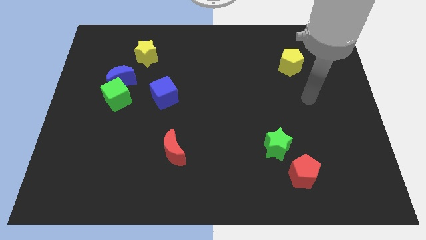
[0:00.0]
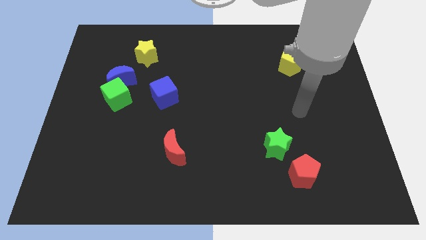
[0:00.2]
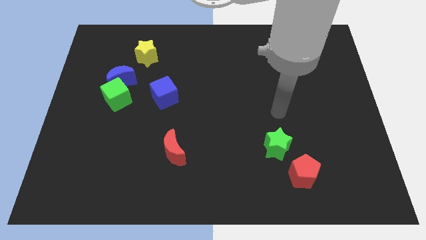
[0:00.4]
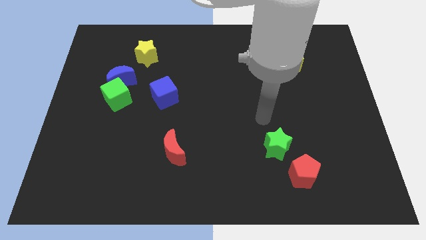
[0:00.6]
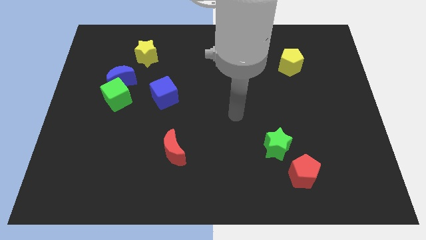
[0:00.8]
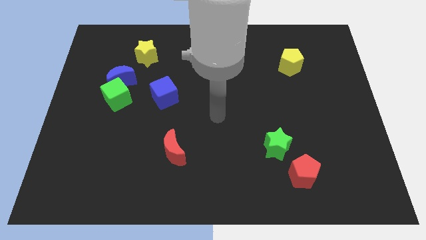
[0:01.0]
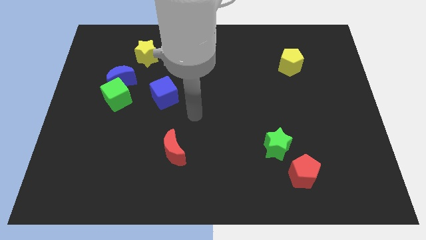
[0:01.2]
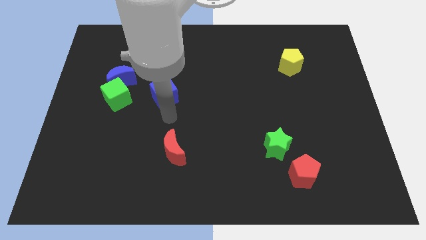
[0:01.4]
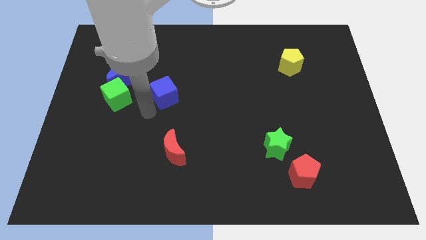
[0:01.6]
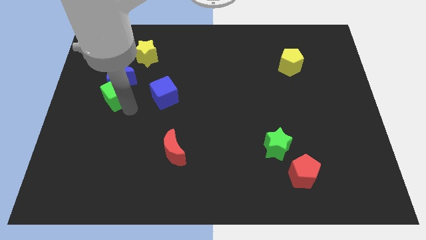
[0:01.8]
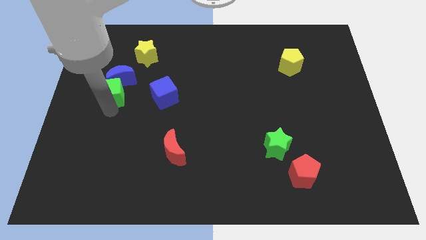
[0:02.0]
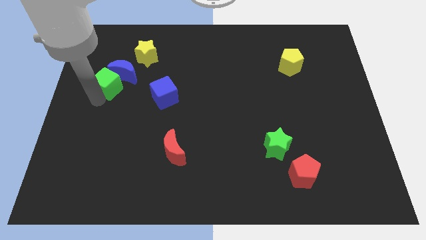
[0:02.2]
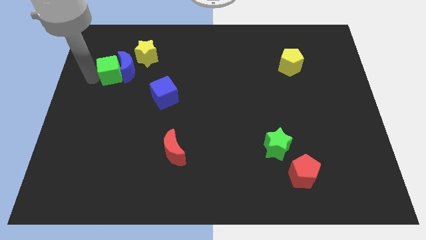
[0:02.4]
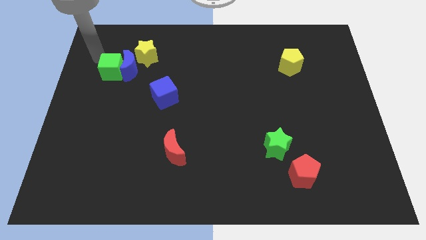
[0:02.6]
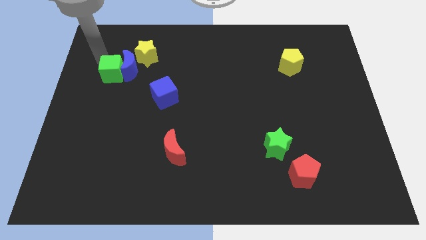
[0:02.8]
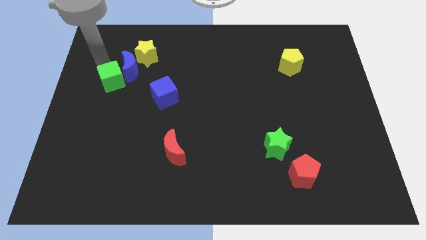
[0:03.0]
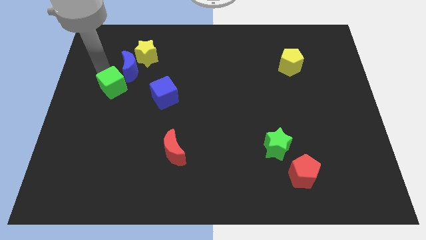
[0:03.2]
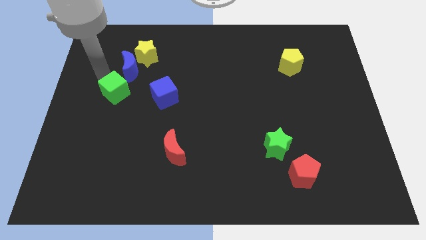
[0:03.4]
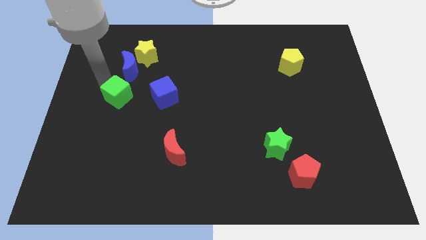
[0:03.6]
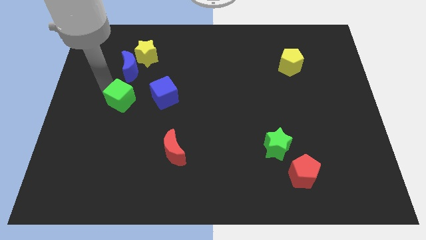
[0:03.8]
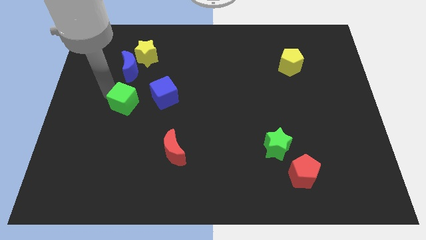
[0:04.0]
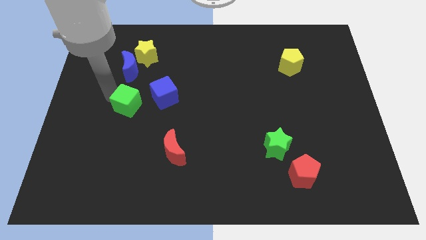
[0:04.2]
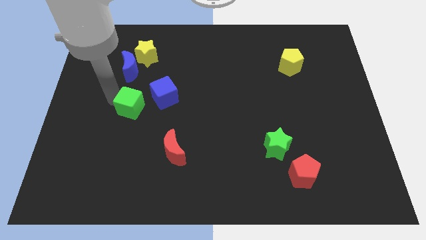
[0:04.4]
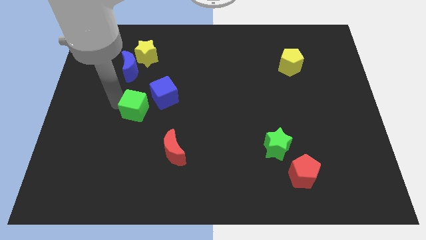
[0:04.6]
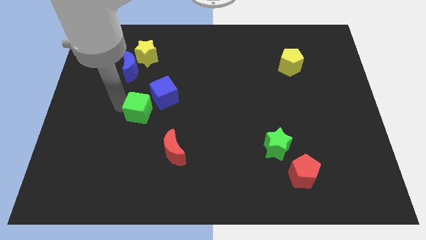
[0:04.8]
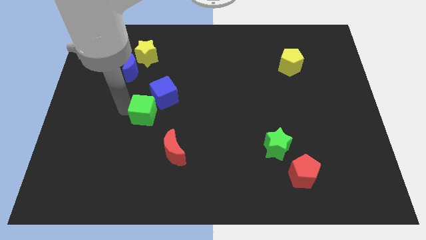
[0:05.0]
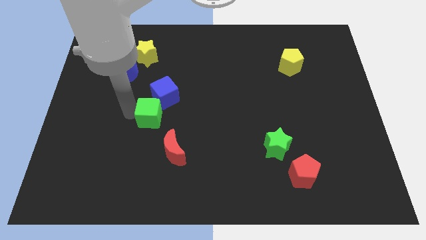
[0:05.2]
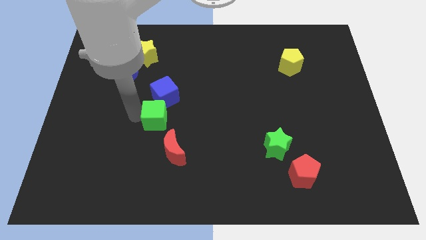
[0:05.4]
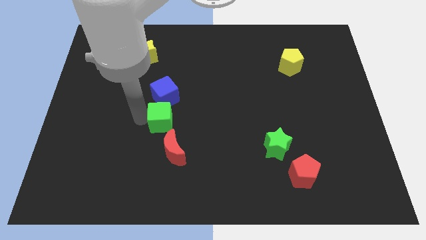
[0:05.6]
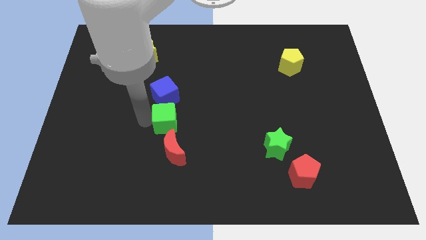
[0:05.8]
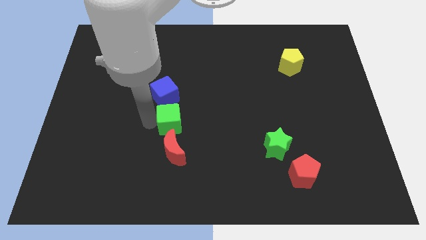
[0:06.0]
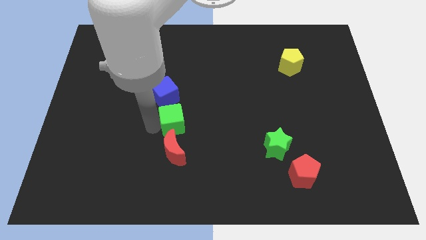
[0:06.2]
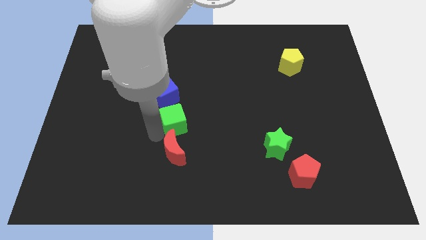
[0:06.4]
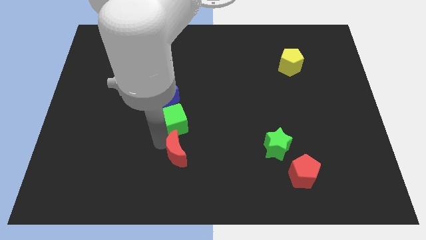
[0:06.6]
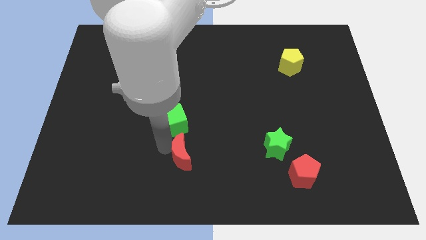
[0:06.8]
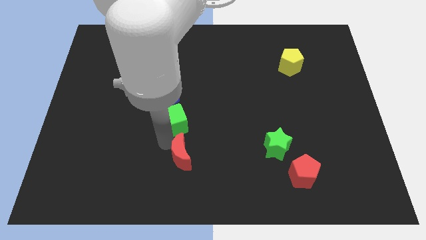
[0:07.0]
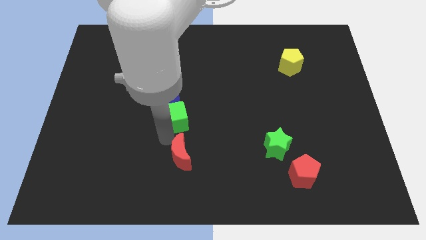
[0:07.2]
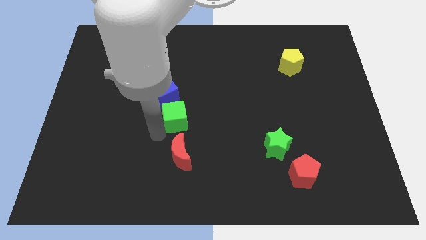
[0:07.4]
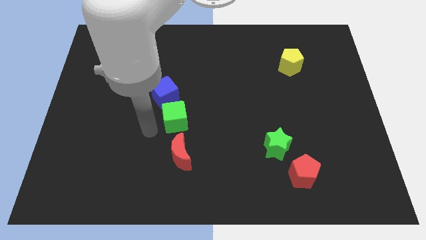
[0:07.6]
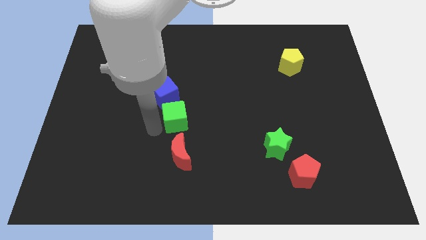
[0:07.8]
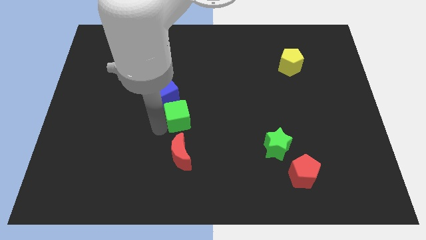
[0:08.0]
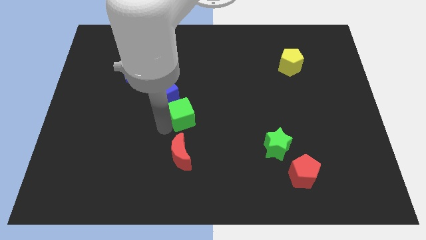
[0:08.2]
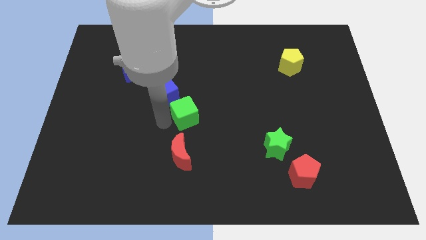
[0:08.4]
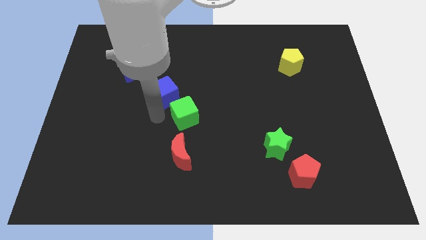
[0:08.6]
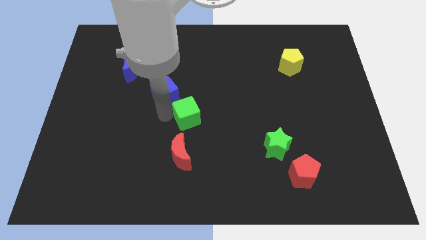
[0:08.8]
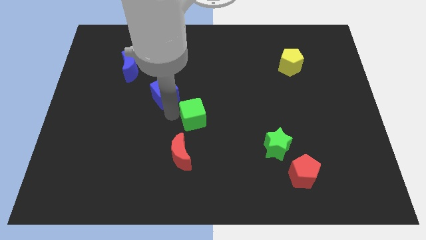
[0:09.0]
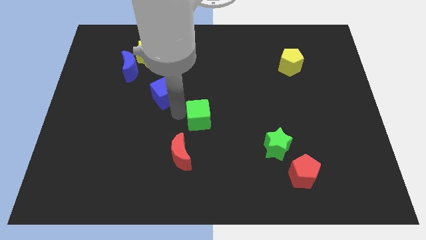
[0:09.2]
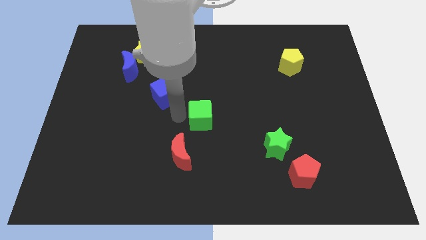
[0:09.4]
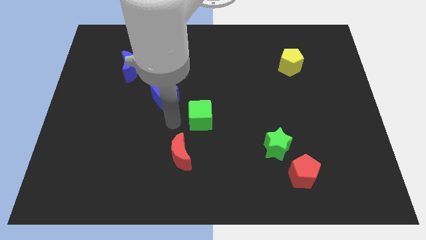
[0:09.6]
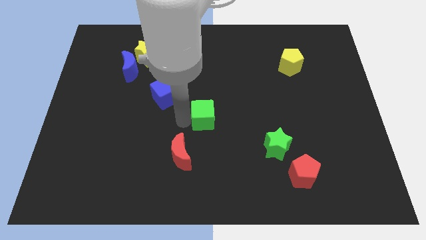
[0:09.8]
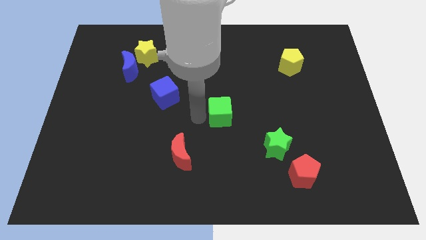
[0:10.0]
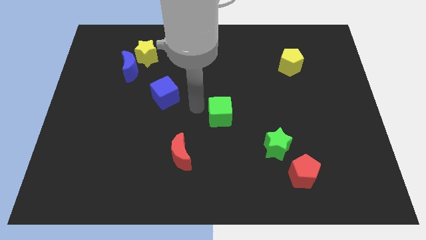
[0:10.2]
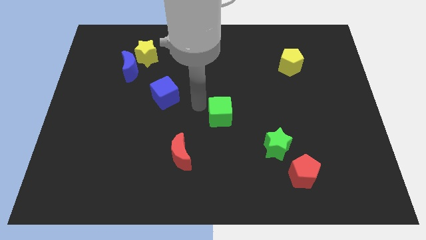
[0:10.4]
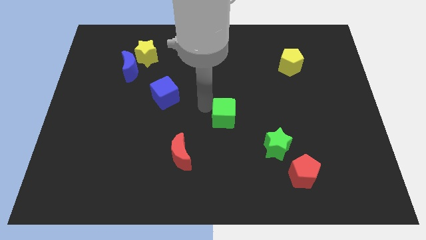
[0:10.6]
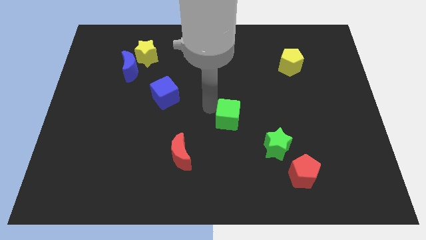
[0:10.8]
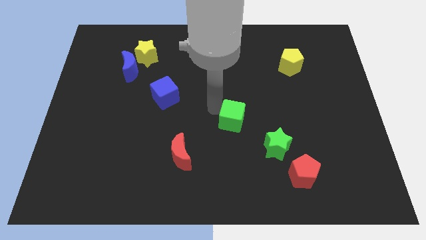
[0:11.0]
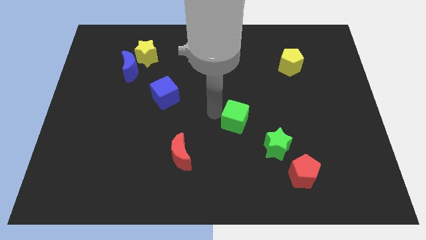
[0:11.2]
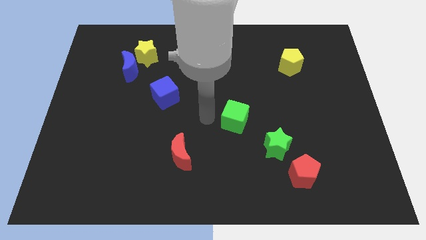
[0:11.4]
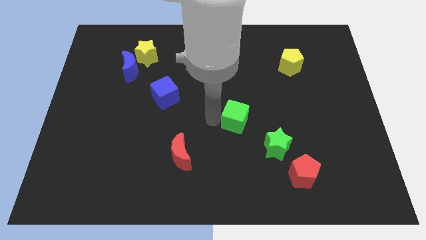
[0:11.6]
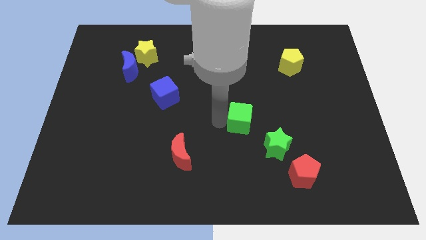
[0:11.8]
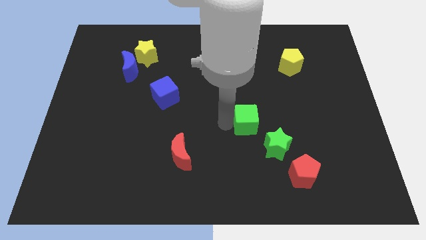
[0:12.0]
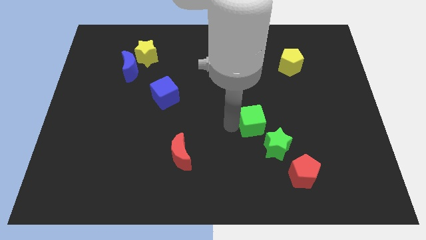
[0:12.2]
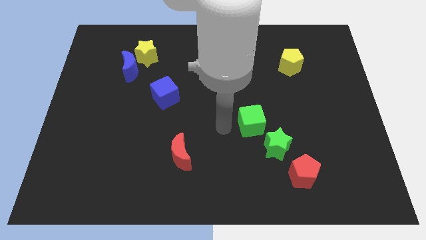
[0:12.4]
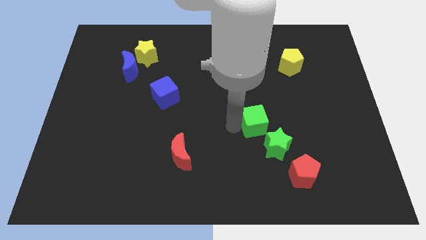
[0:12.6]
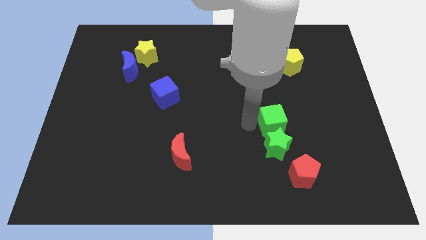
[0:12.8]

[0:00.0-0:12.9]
slide the green cube diagonally up and to the right of the green star

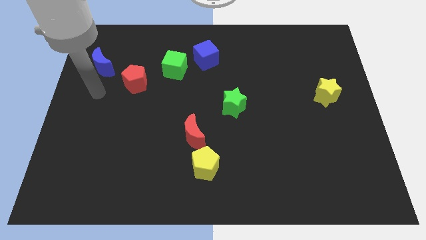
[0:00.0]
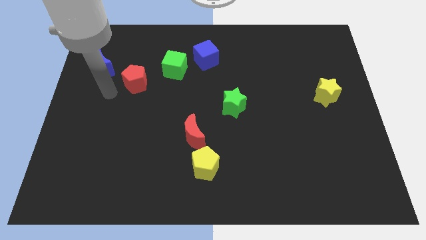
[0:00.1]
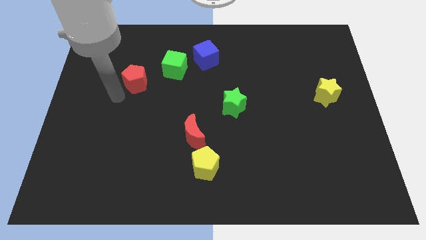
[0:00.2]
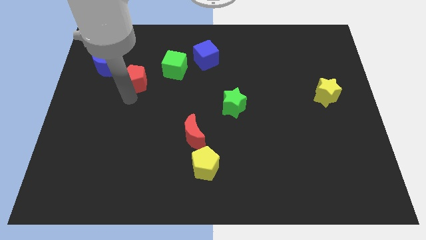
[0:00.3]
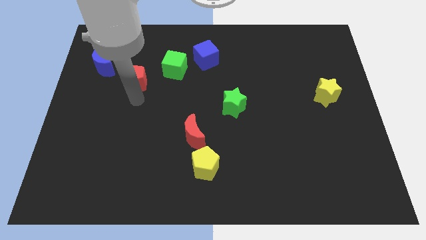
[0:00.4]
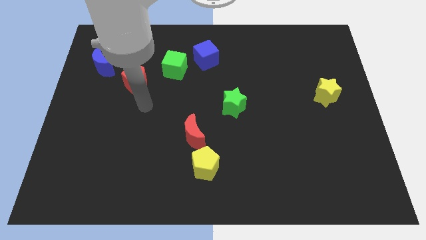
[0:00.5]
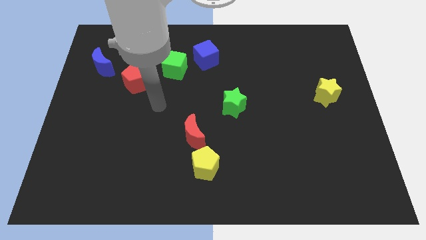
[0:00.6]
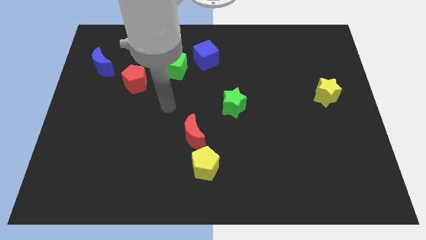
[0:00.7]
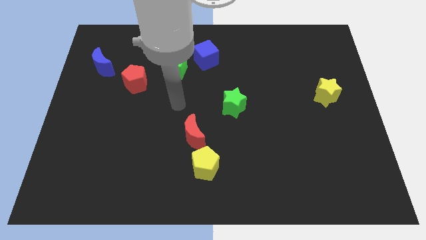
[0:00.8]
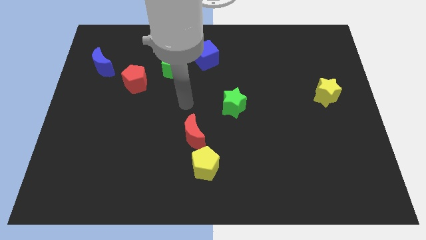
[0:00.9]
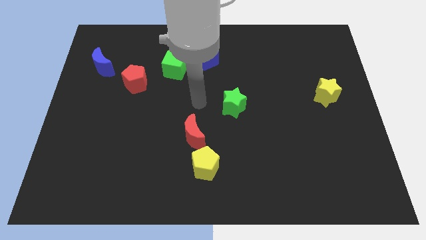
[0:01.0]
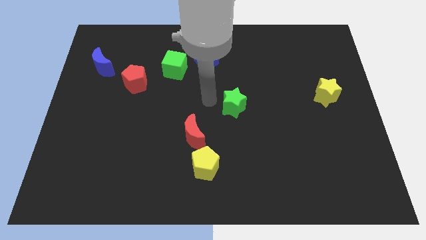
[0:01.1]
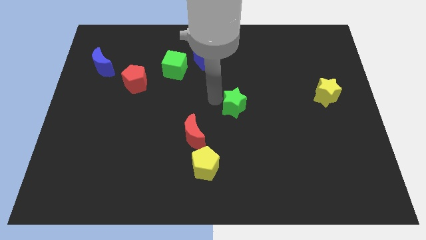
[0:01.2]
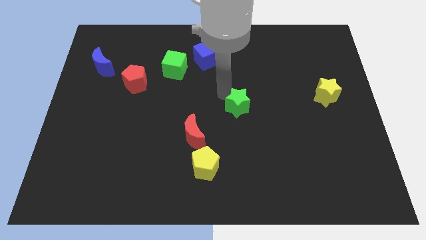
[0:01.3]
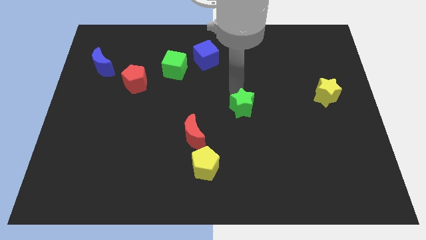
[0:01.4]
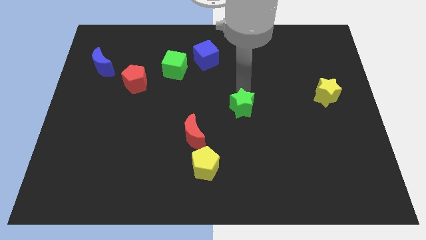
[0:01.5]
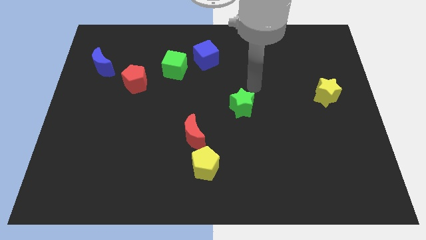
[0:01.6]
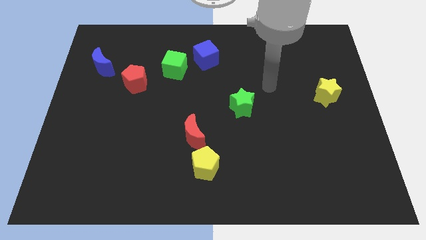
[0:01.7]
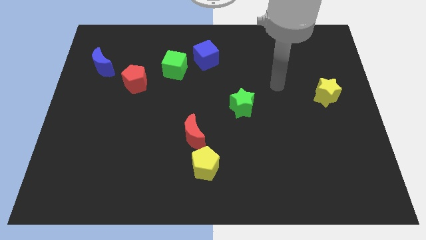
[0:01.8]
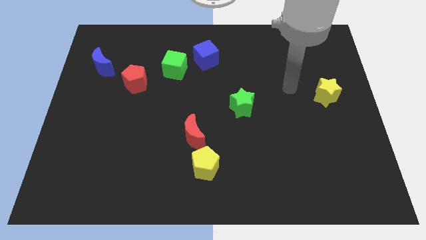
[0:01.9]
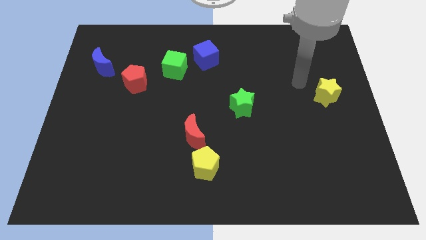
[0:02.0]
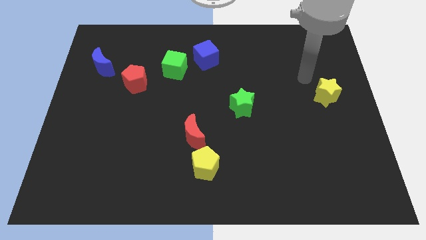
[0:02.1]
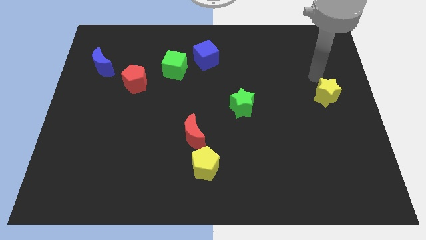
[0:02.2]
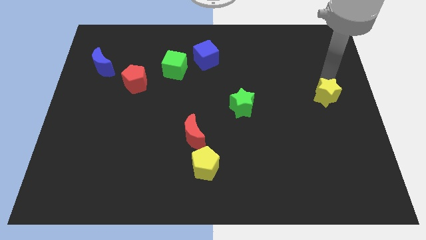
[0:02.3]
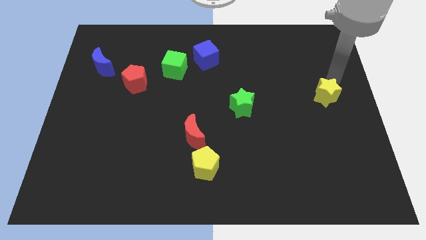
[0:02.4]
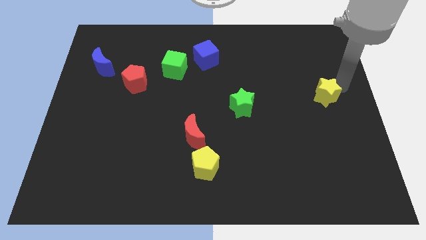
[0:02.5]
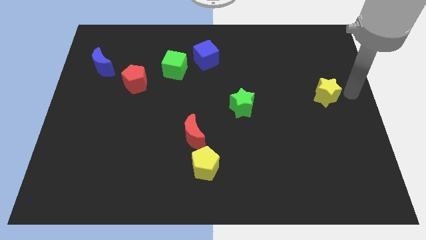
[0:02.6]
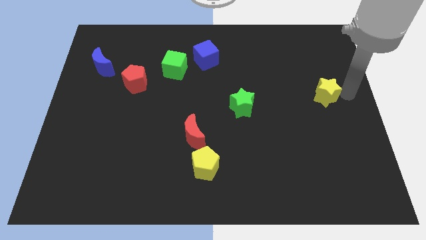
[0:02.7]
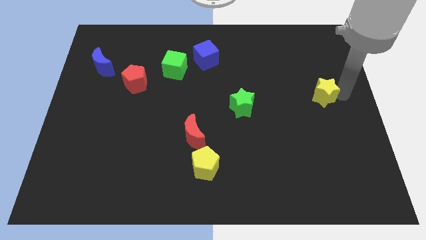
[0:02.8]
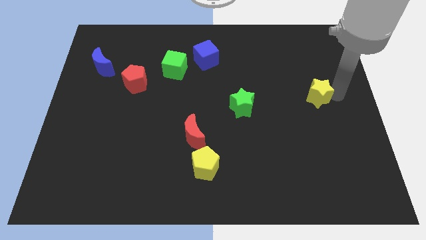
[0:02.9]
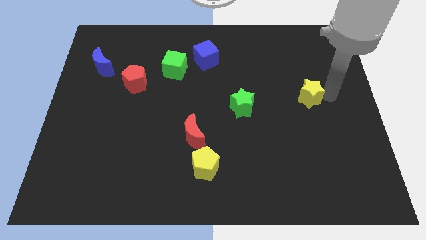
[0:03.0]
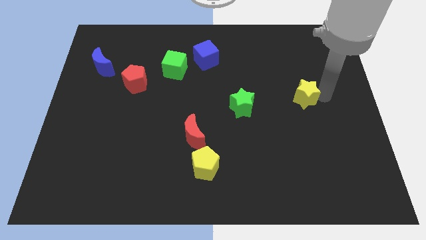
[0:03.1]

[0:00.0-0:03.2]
slide the yellow star to the right of the green star
